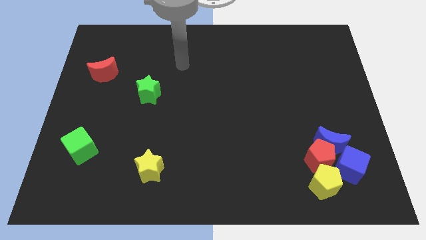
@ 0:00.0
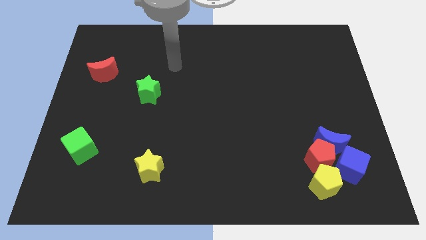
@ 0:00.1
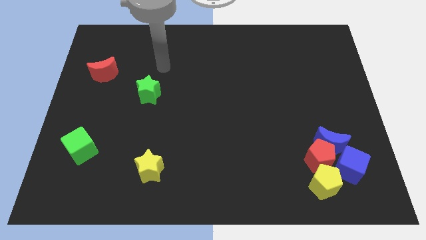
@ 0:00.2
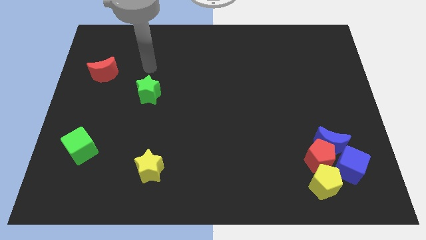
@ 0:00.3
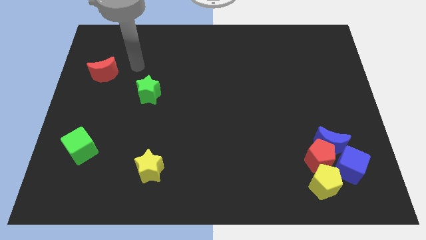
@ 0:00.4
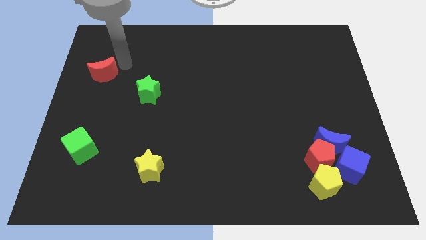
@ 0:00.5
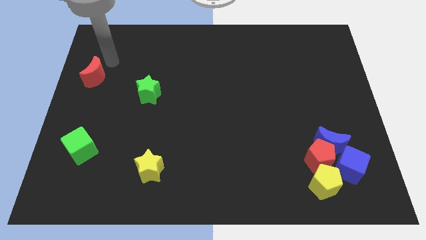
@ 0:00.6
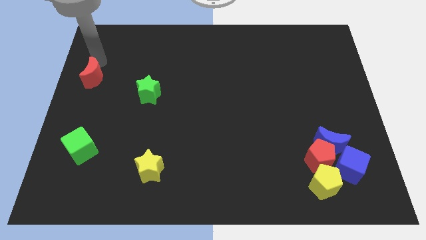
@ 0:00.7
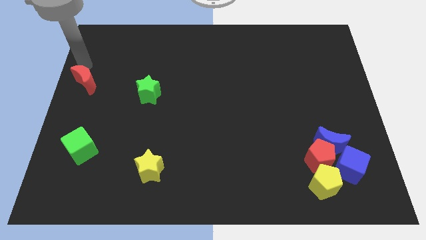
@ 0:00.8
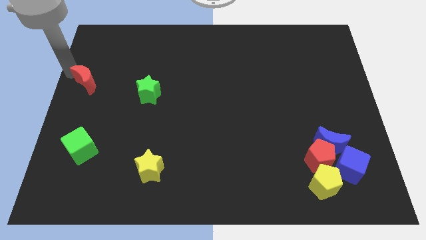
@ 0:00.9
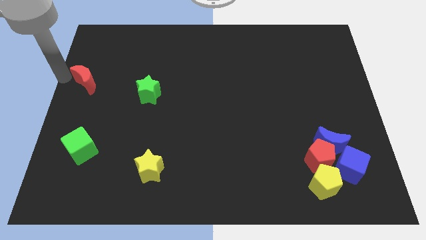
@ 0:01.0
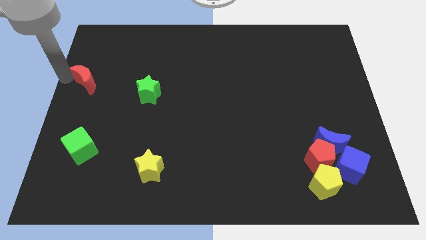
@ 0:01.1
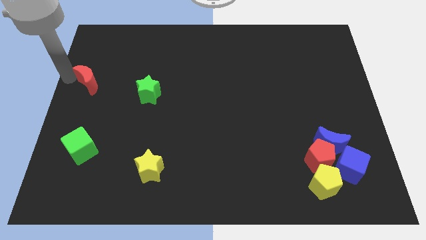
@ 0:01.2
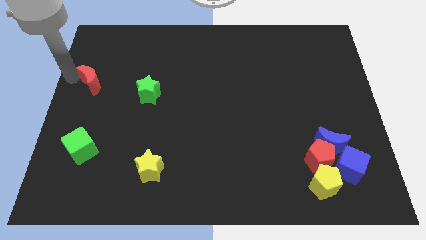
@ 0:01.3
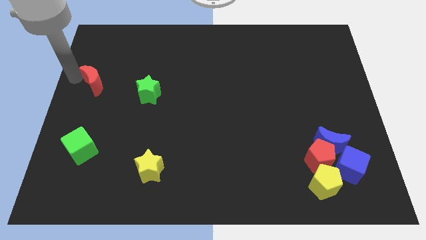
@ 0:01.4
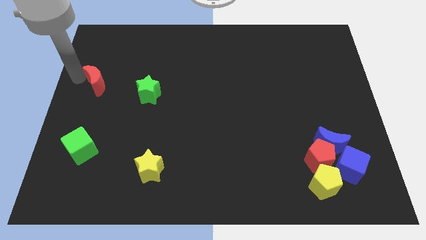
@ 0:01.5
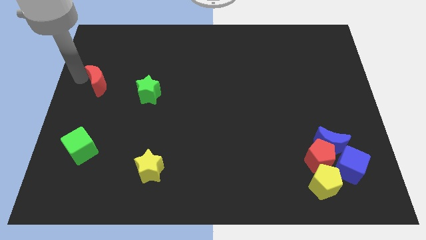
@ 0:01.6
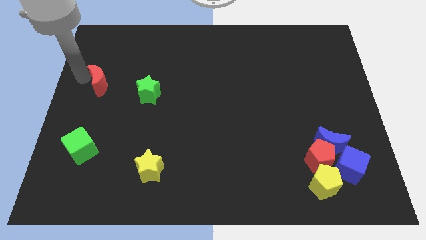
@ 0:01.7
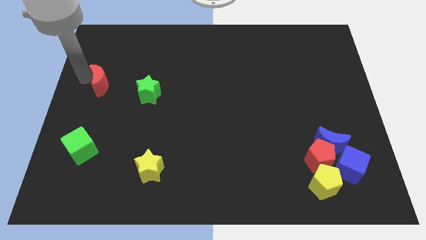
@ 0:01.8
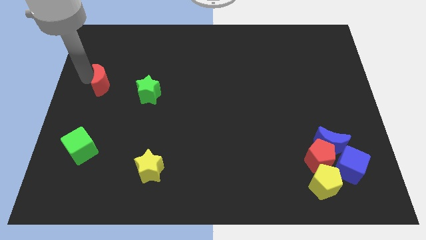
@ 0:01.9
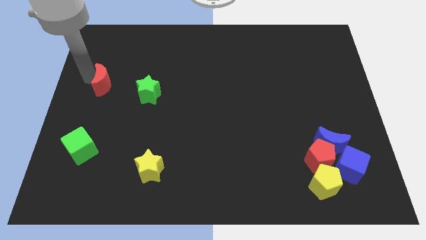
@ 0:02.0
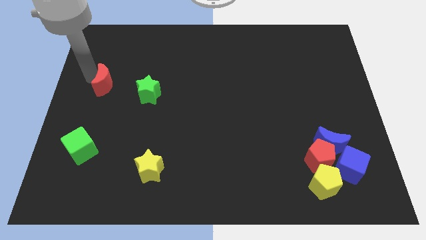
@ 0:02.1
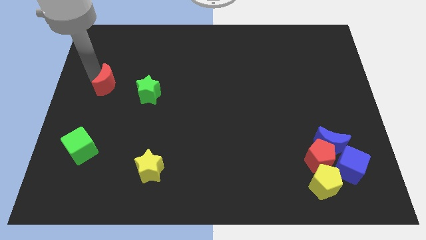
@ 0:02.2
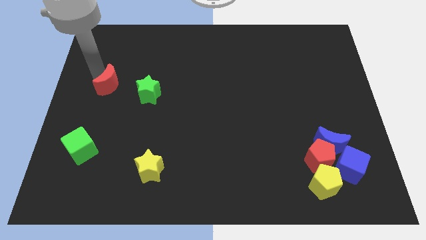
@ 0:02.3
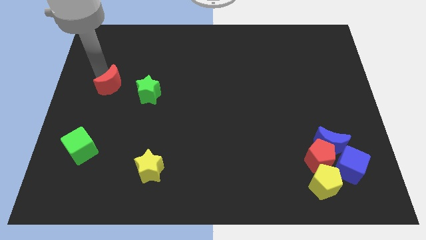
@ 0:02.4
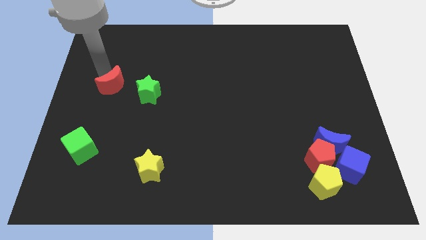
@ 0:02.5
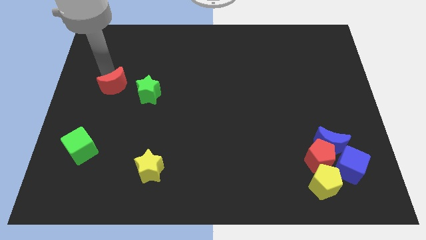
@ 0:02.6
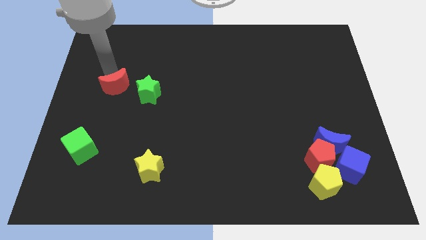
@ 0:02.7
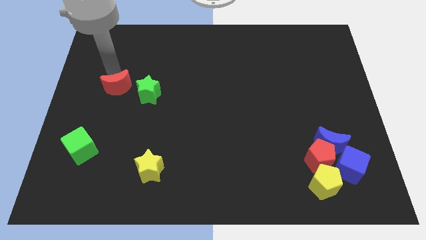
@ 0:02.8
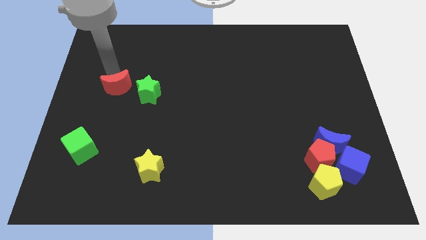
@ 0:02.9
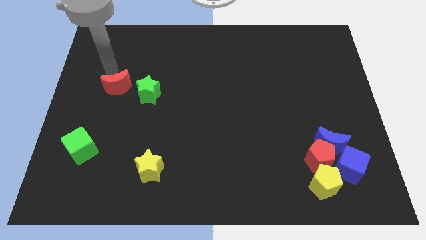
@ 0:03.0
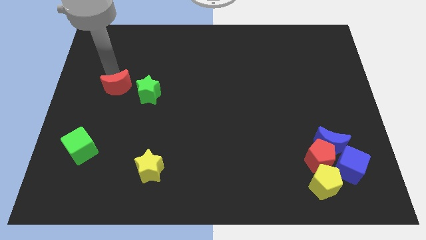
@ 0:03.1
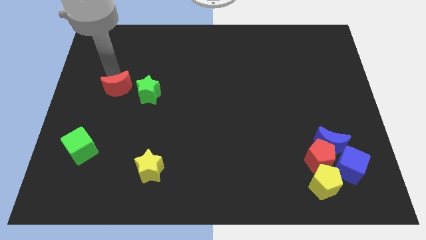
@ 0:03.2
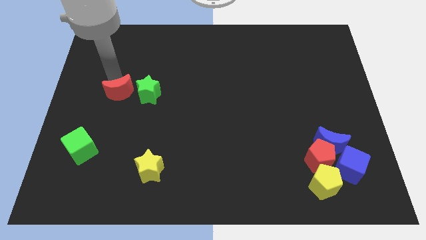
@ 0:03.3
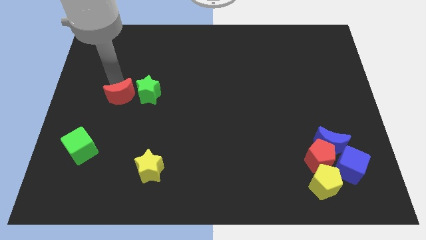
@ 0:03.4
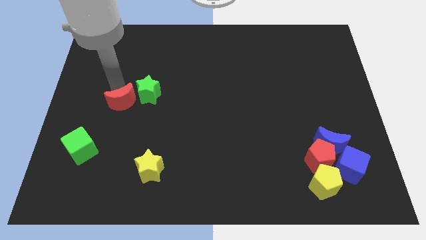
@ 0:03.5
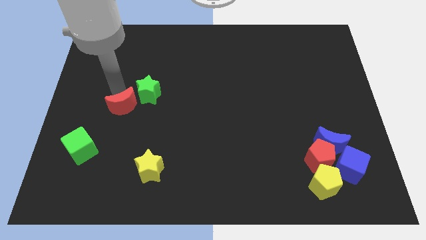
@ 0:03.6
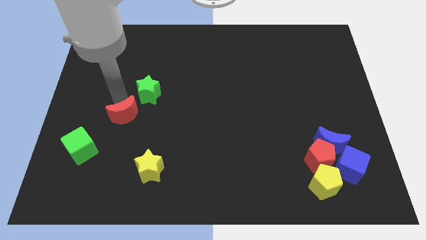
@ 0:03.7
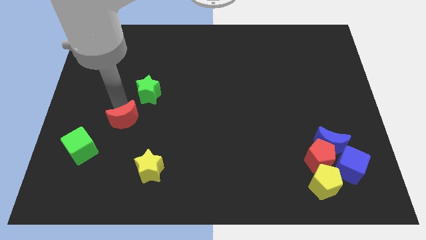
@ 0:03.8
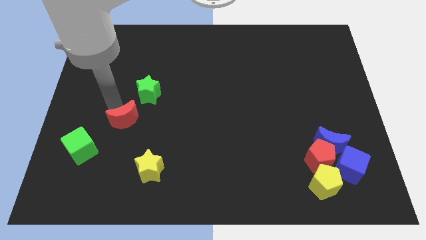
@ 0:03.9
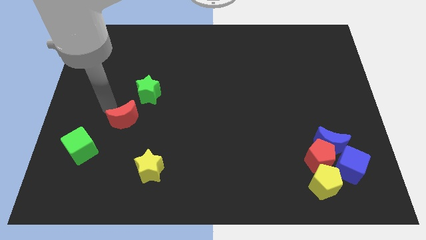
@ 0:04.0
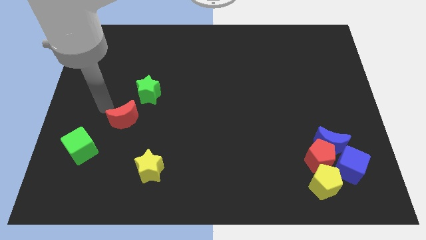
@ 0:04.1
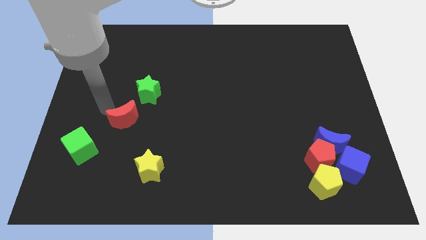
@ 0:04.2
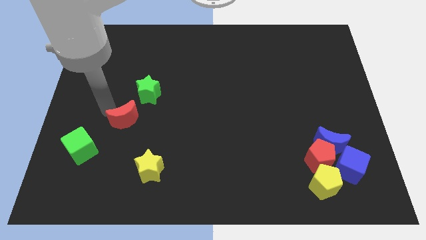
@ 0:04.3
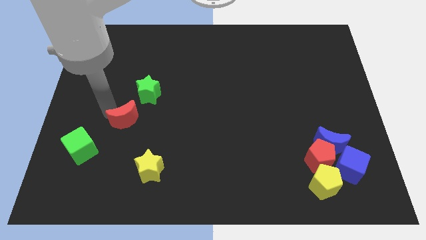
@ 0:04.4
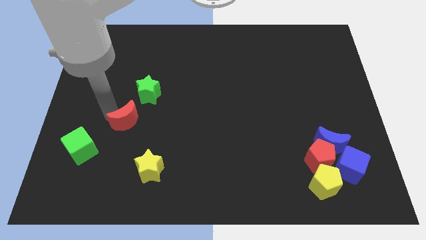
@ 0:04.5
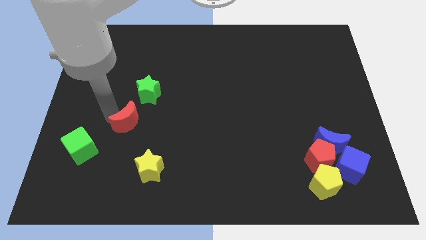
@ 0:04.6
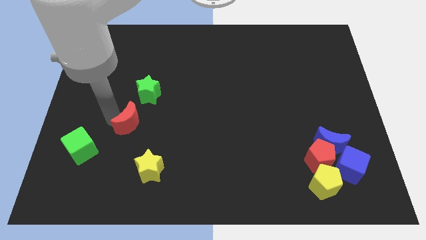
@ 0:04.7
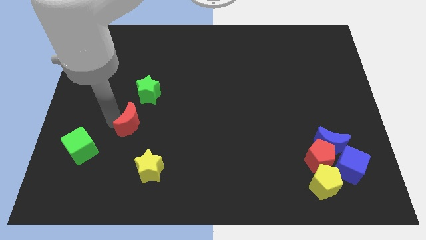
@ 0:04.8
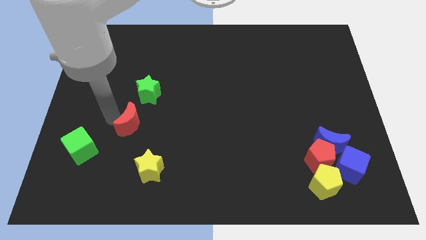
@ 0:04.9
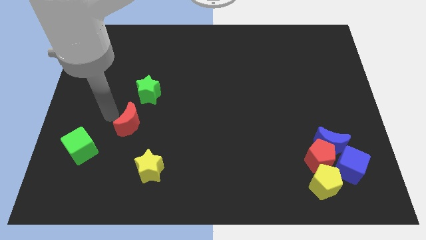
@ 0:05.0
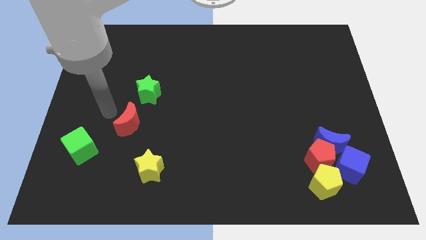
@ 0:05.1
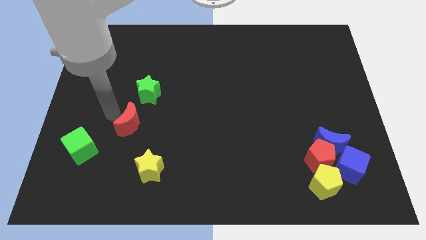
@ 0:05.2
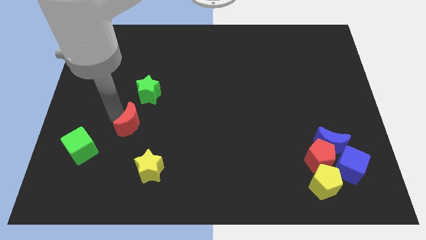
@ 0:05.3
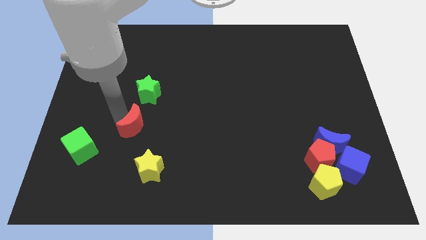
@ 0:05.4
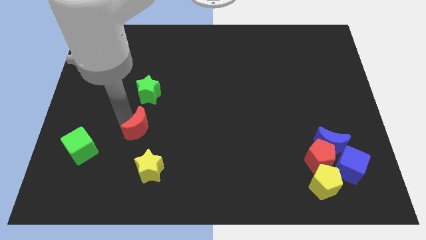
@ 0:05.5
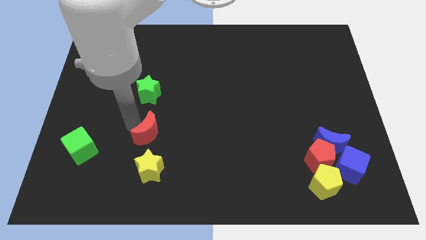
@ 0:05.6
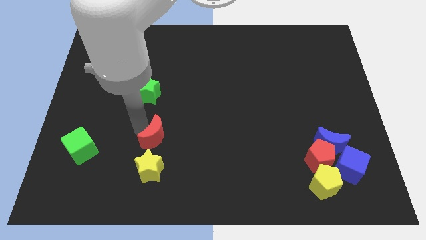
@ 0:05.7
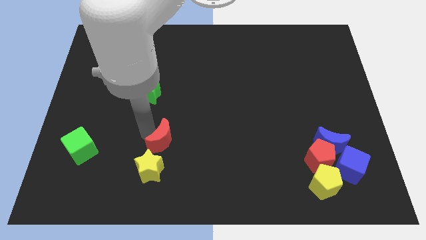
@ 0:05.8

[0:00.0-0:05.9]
put the red moon to the top right side of the yellow star

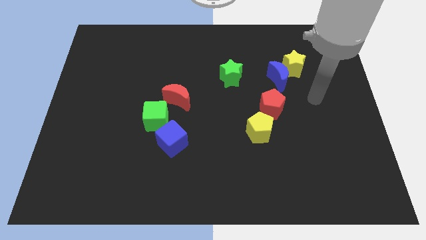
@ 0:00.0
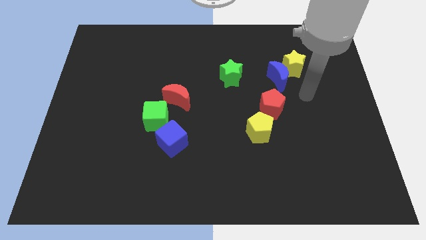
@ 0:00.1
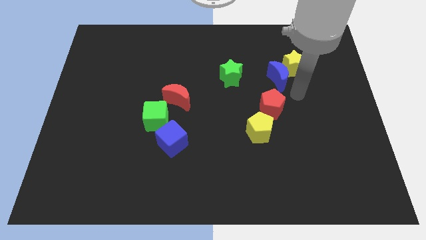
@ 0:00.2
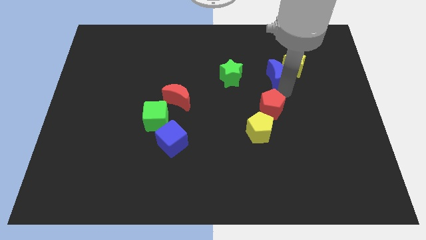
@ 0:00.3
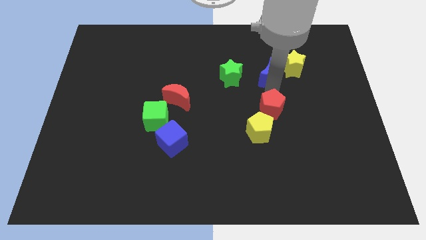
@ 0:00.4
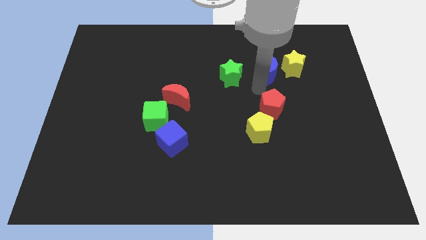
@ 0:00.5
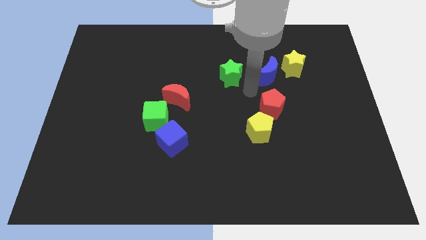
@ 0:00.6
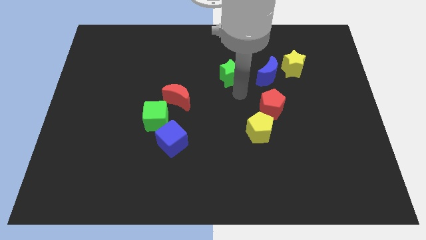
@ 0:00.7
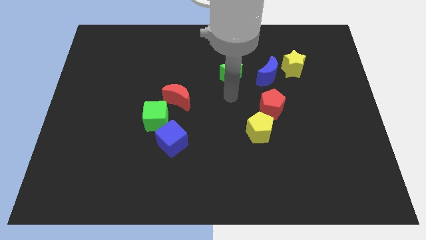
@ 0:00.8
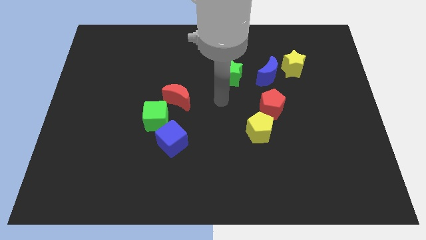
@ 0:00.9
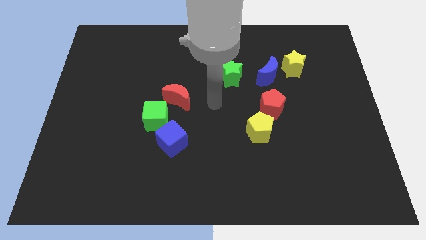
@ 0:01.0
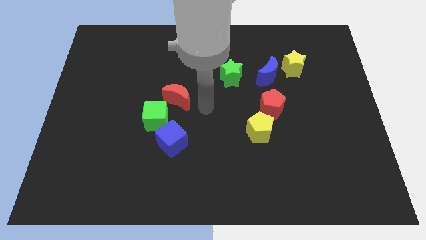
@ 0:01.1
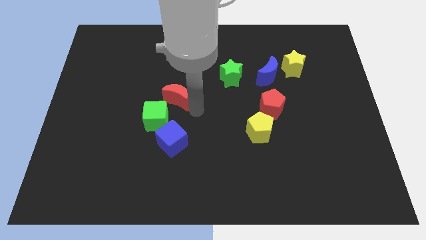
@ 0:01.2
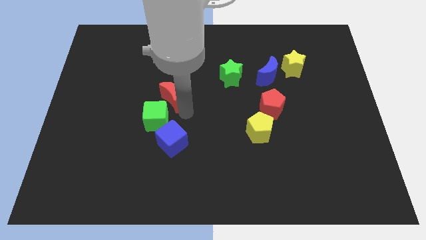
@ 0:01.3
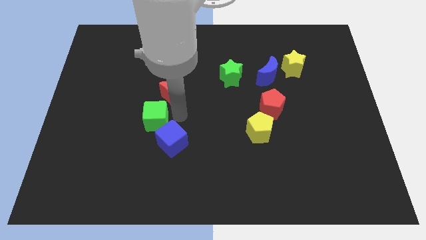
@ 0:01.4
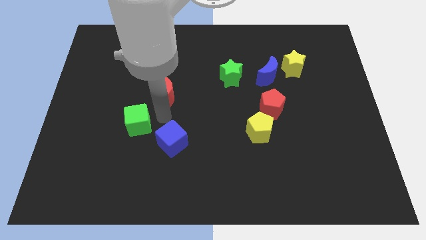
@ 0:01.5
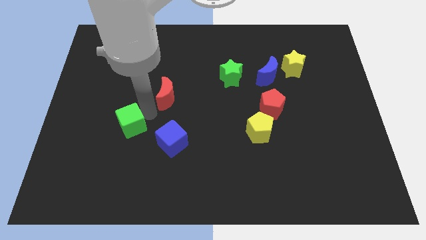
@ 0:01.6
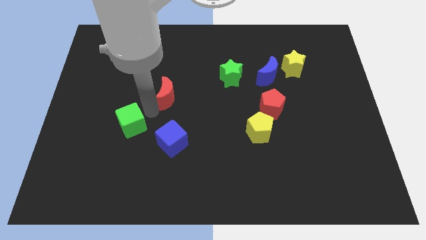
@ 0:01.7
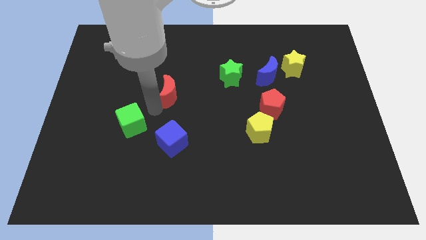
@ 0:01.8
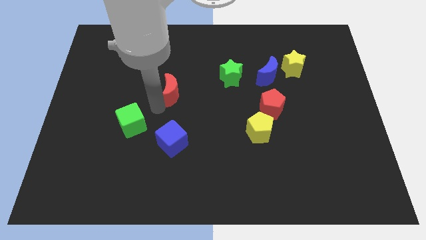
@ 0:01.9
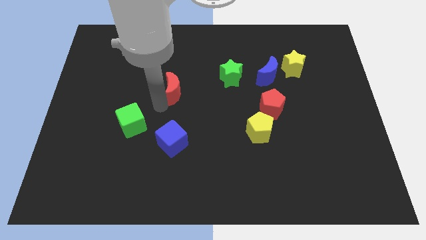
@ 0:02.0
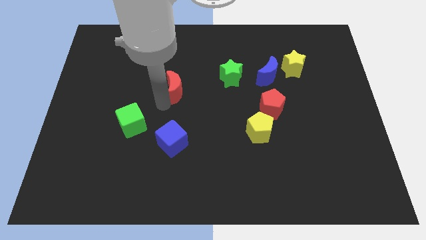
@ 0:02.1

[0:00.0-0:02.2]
push the red moon to the left of the green star
